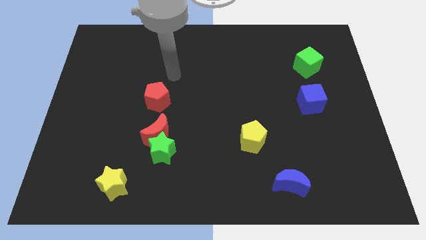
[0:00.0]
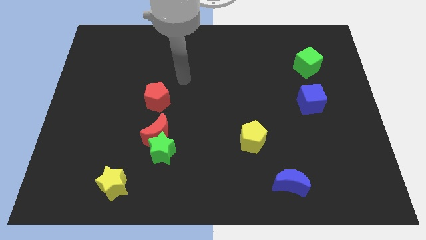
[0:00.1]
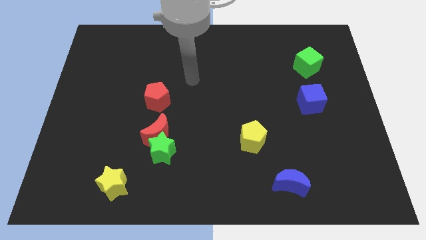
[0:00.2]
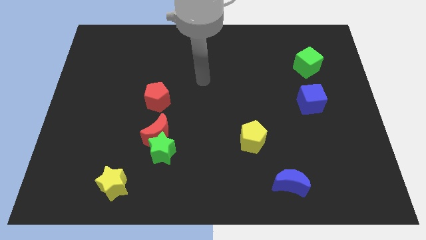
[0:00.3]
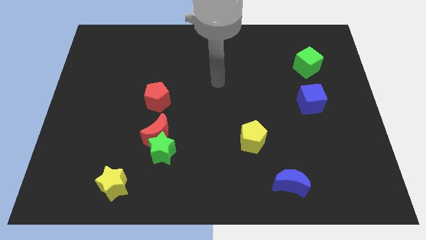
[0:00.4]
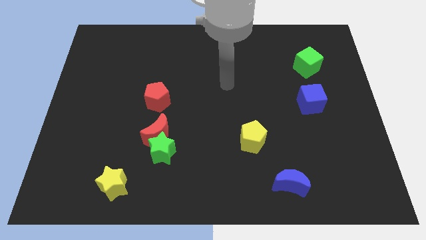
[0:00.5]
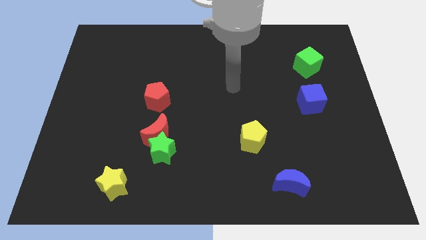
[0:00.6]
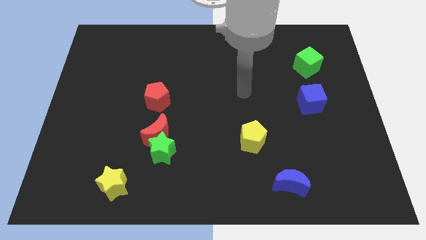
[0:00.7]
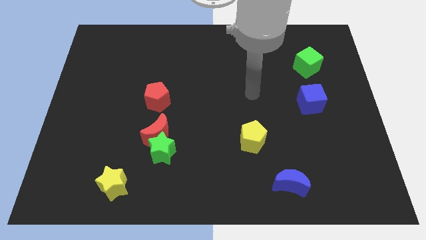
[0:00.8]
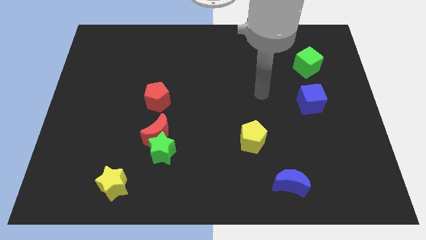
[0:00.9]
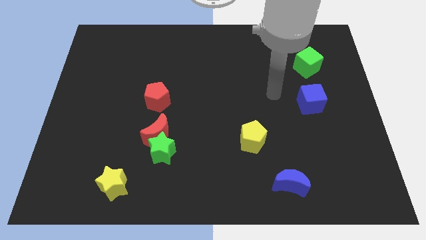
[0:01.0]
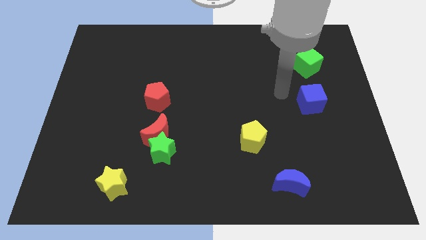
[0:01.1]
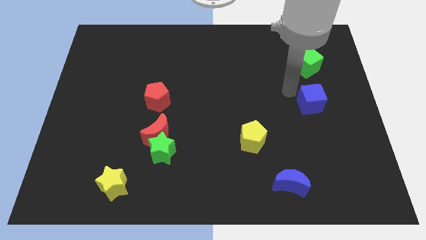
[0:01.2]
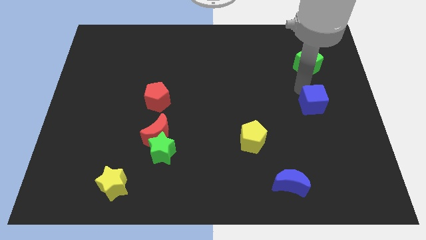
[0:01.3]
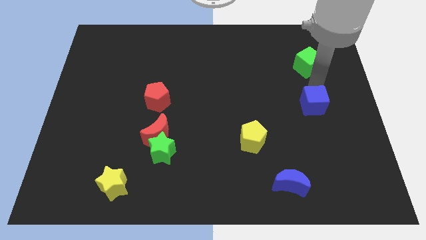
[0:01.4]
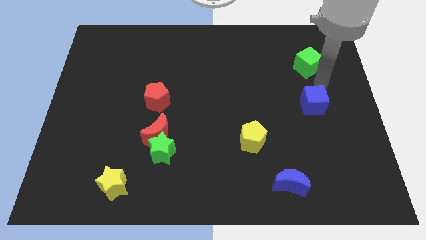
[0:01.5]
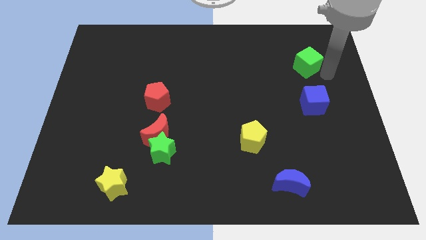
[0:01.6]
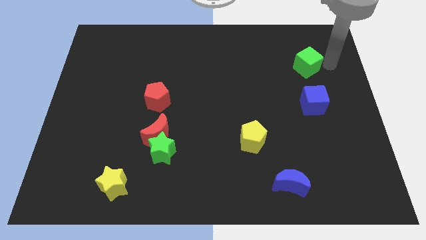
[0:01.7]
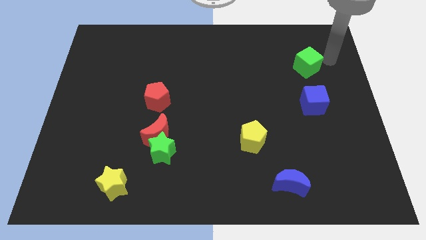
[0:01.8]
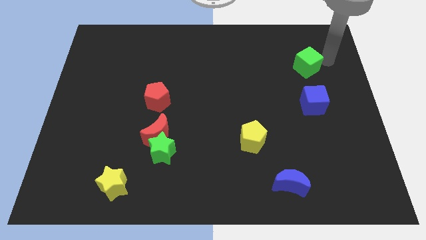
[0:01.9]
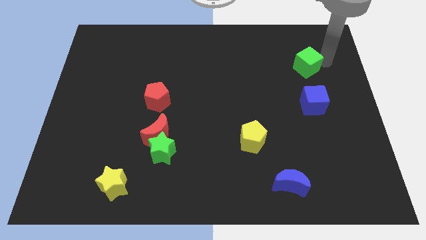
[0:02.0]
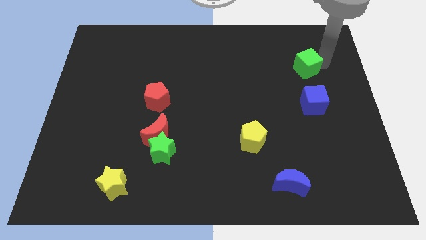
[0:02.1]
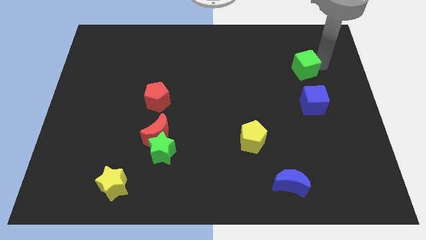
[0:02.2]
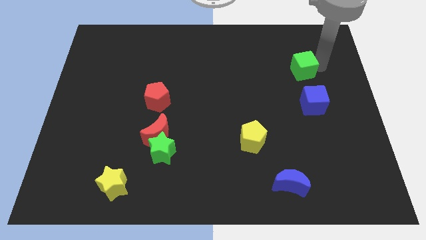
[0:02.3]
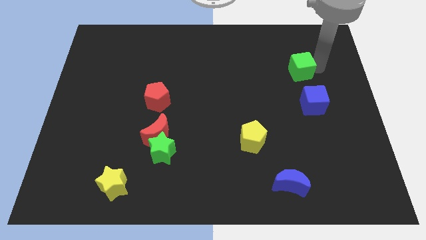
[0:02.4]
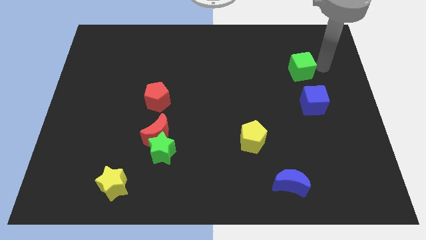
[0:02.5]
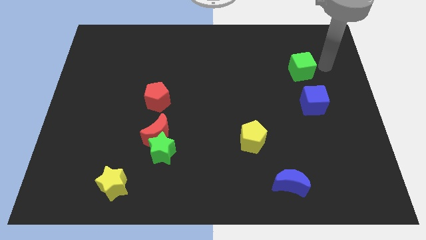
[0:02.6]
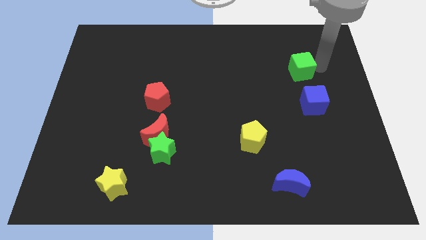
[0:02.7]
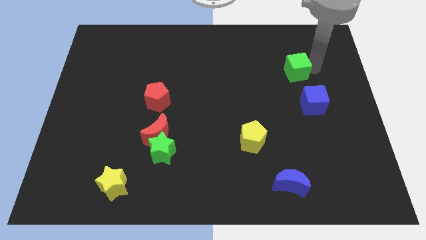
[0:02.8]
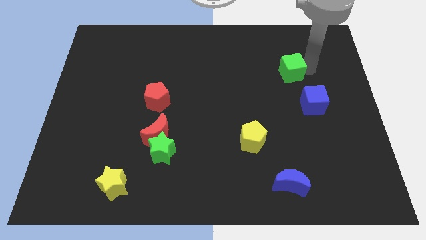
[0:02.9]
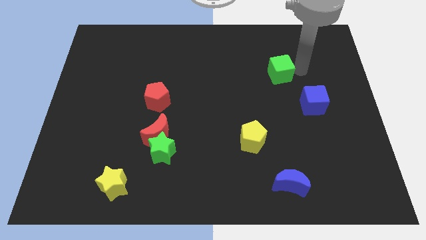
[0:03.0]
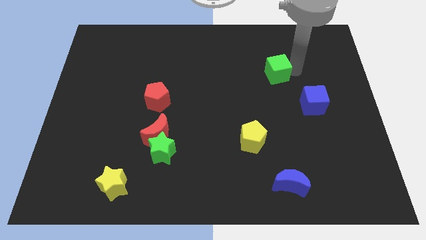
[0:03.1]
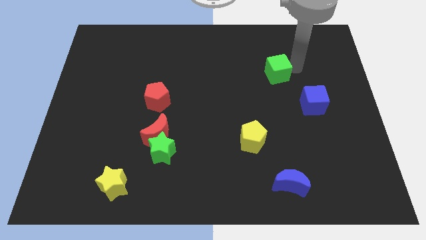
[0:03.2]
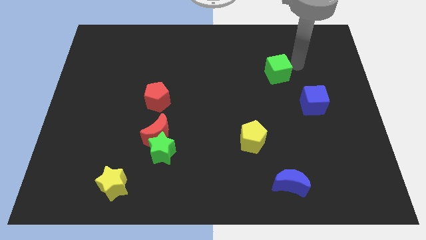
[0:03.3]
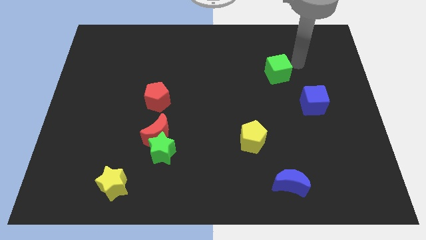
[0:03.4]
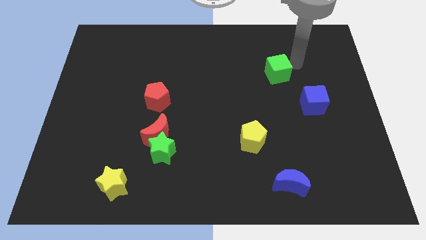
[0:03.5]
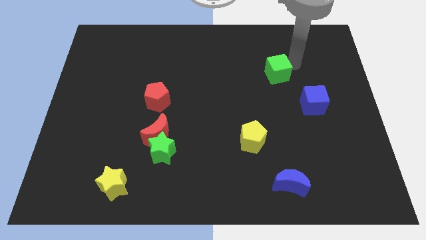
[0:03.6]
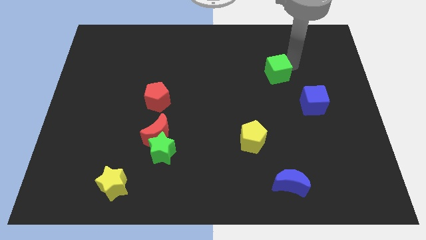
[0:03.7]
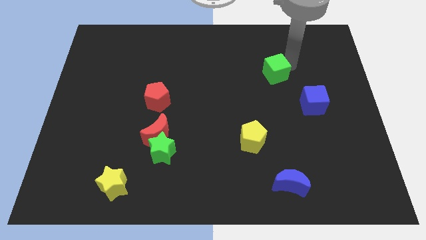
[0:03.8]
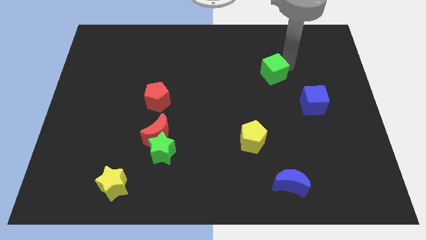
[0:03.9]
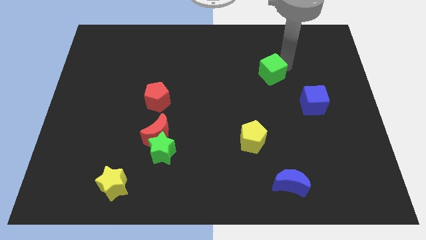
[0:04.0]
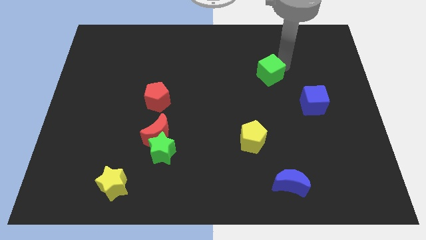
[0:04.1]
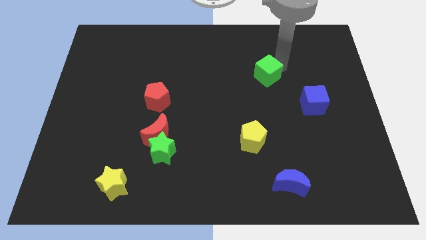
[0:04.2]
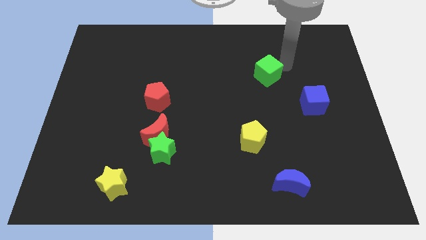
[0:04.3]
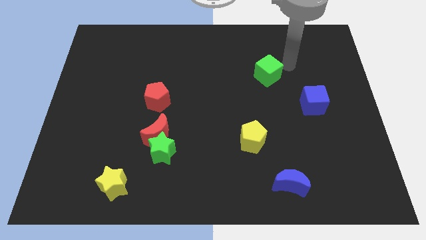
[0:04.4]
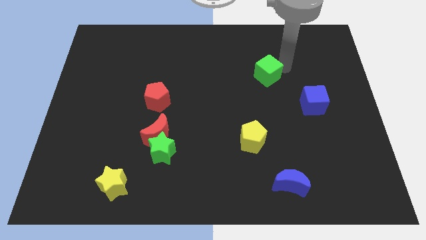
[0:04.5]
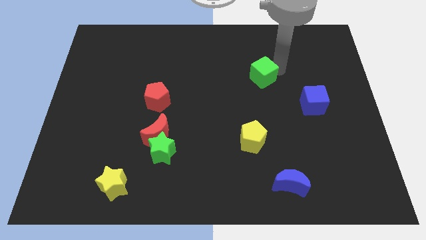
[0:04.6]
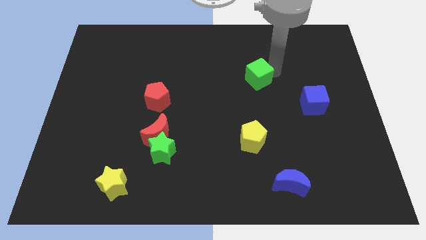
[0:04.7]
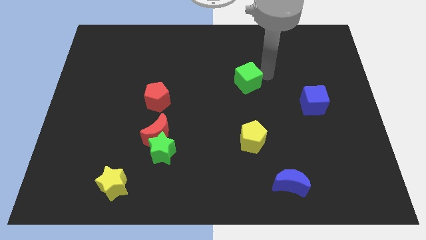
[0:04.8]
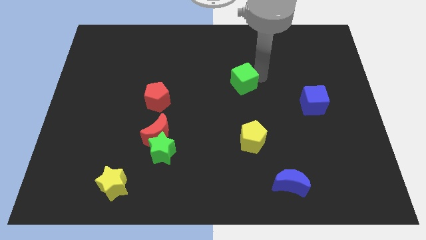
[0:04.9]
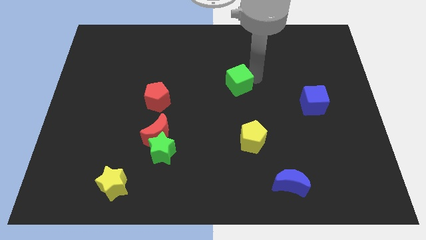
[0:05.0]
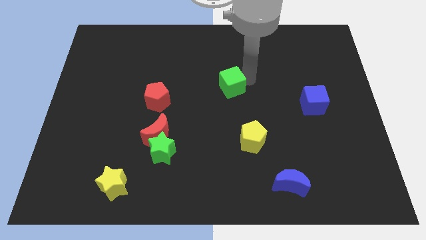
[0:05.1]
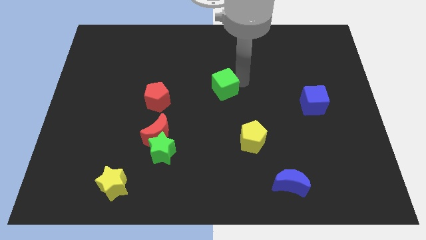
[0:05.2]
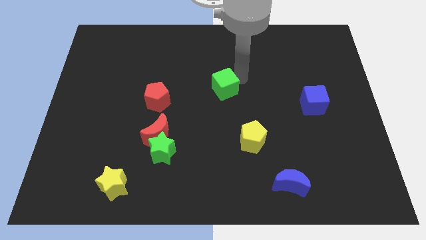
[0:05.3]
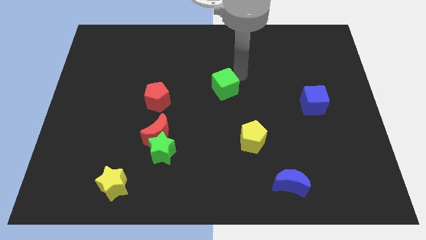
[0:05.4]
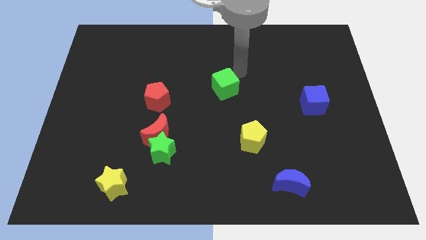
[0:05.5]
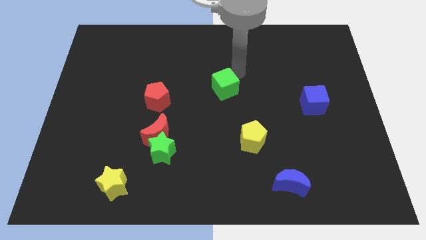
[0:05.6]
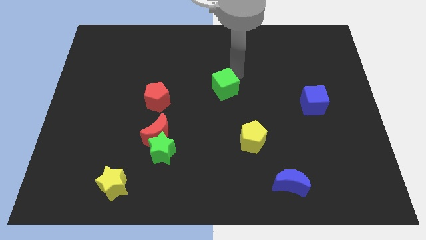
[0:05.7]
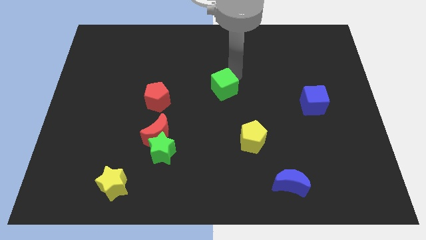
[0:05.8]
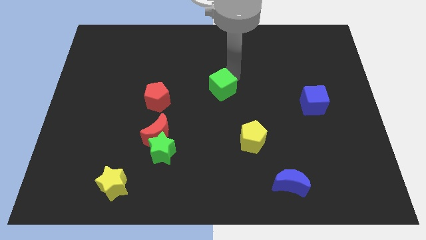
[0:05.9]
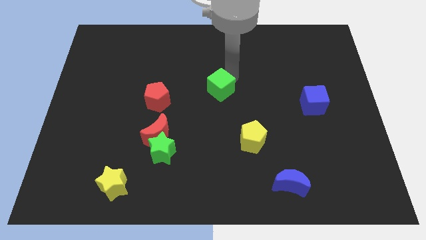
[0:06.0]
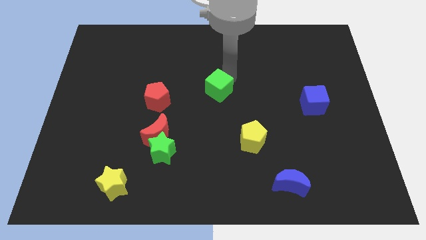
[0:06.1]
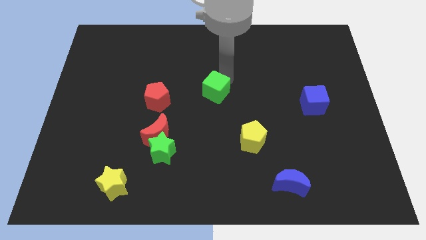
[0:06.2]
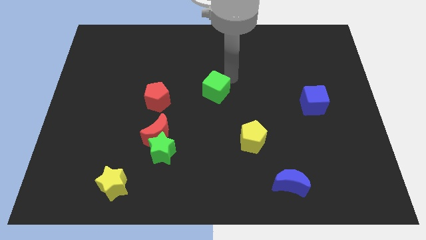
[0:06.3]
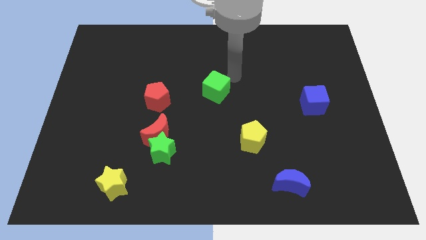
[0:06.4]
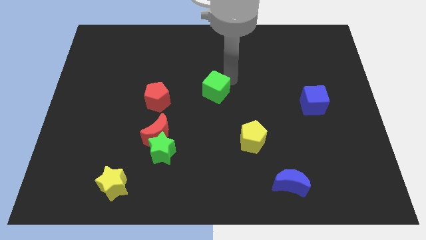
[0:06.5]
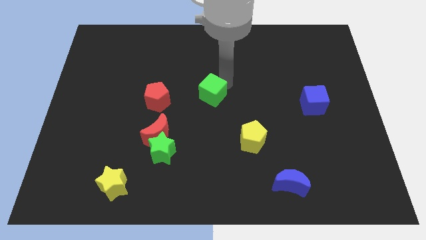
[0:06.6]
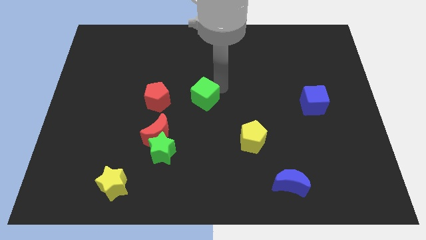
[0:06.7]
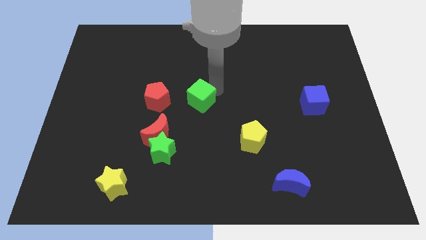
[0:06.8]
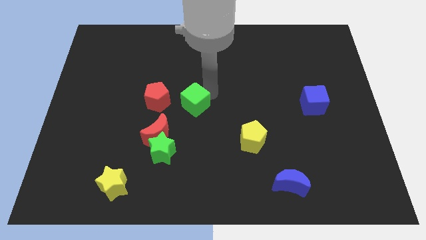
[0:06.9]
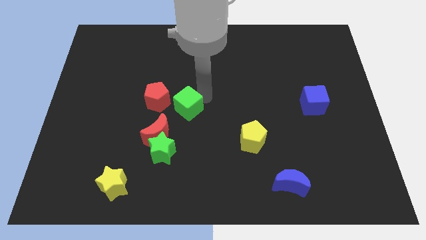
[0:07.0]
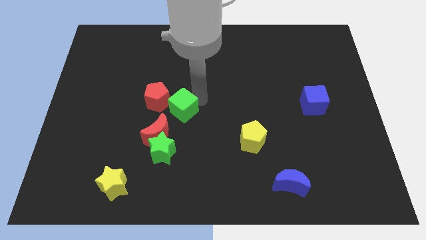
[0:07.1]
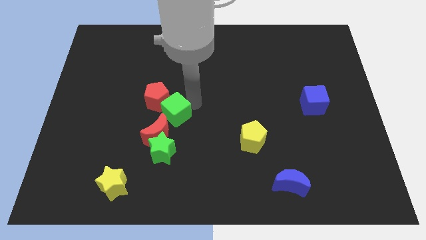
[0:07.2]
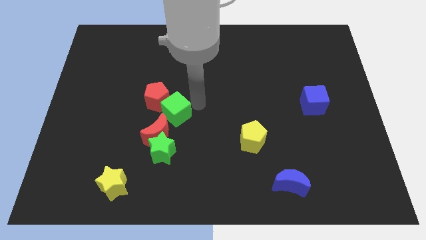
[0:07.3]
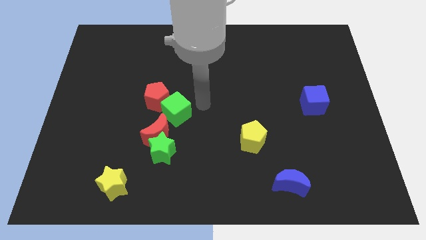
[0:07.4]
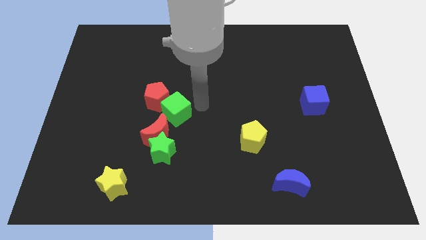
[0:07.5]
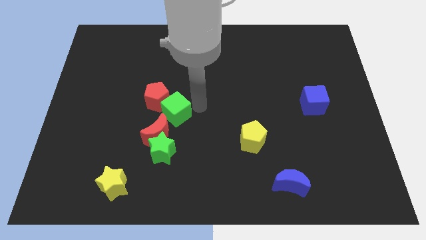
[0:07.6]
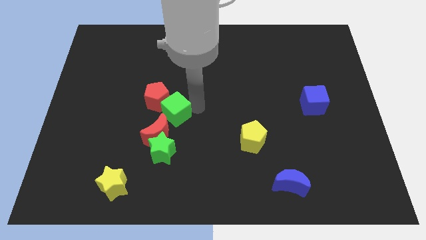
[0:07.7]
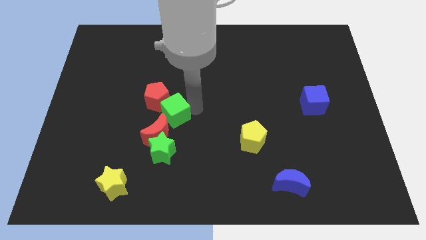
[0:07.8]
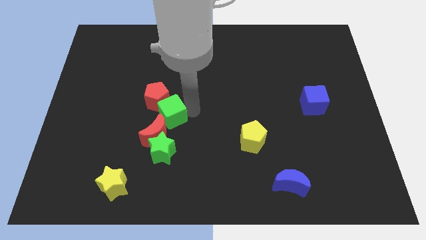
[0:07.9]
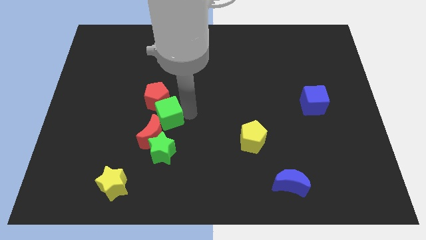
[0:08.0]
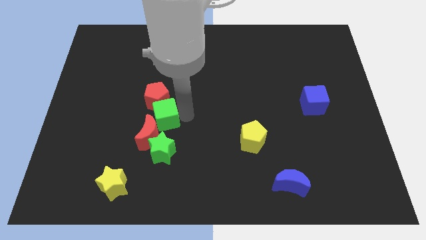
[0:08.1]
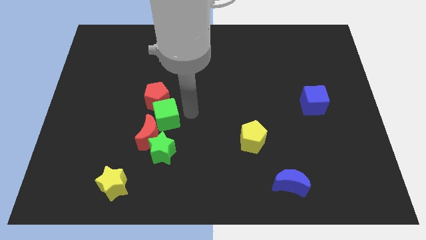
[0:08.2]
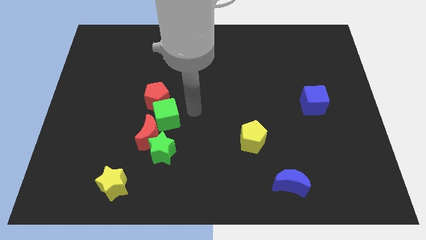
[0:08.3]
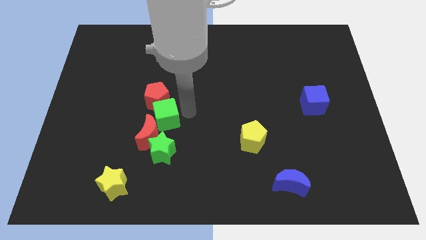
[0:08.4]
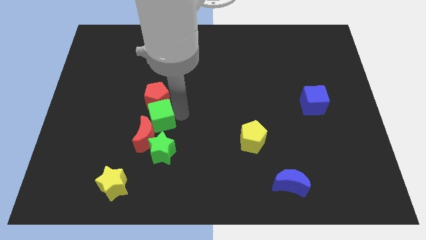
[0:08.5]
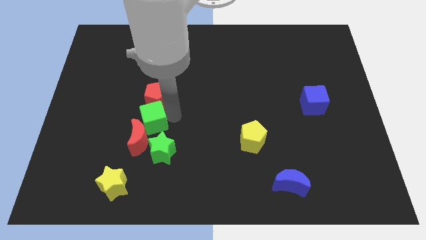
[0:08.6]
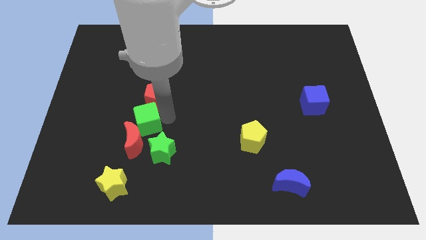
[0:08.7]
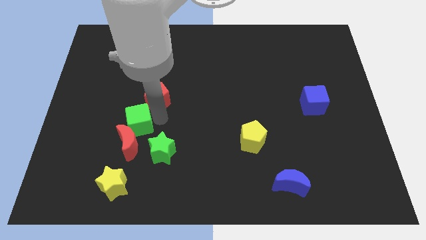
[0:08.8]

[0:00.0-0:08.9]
push the green cube to the top side of the yellow star
